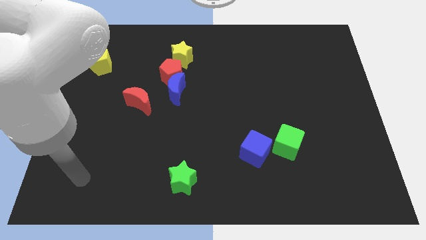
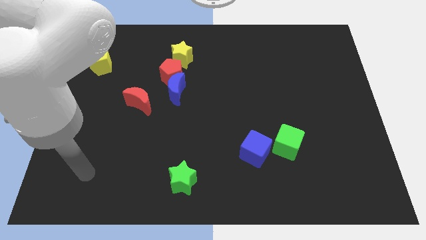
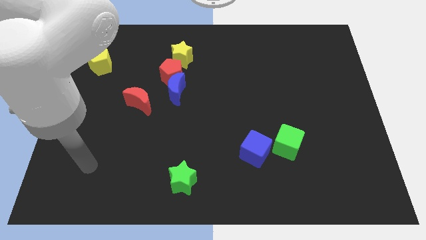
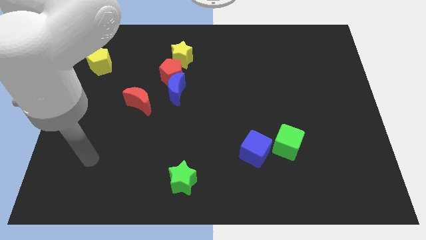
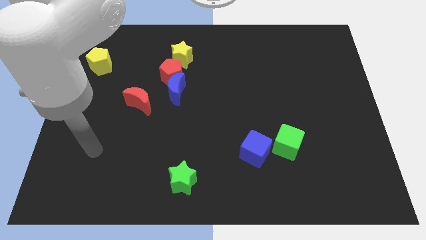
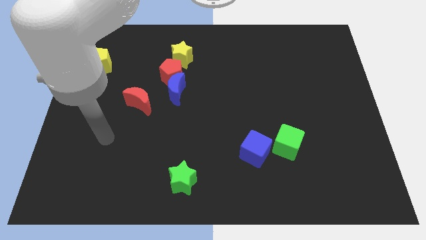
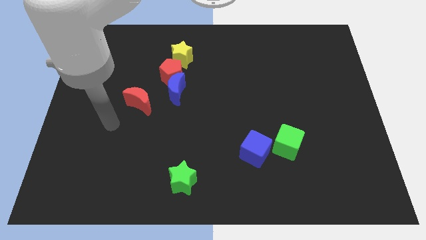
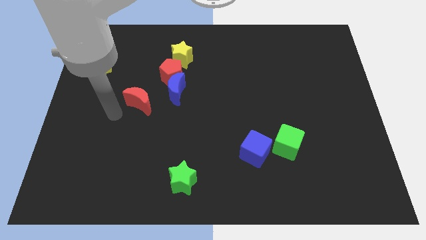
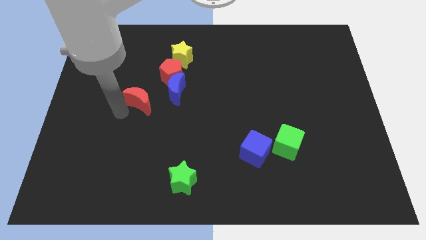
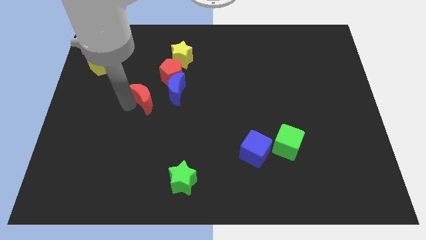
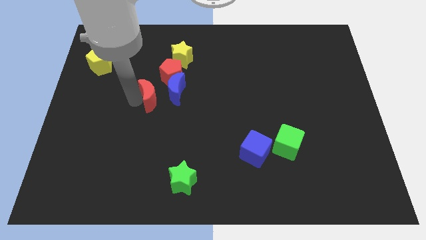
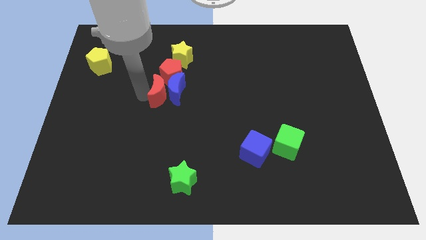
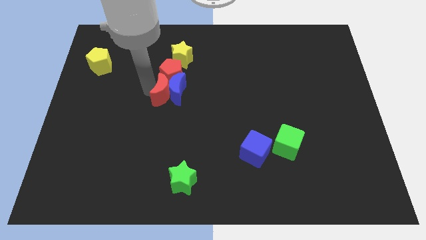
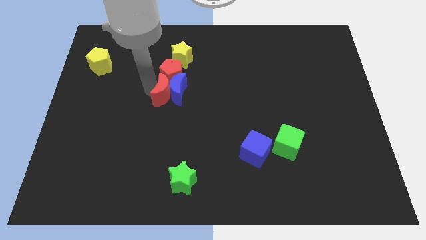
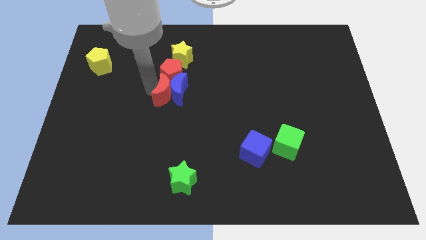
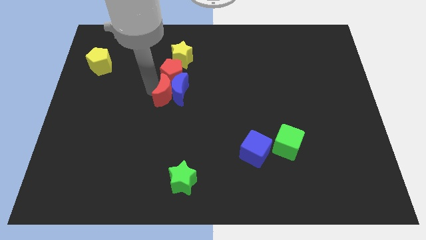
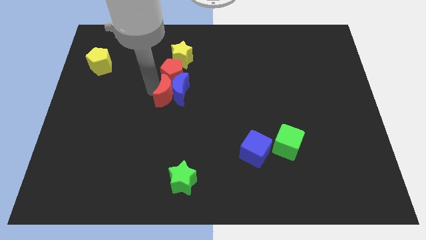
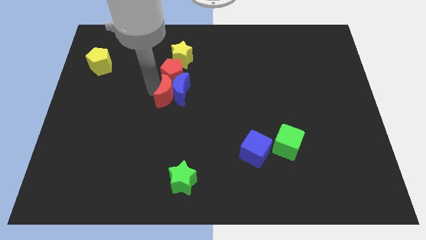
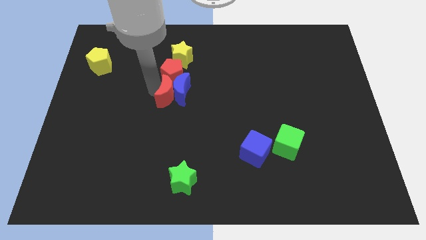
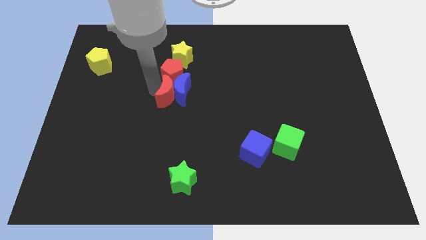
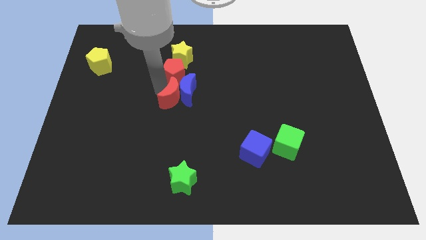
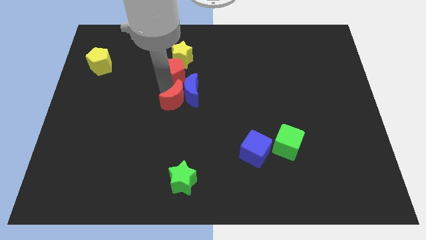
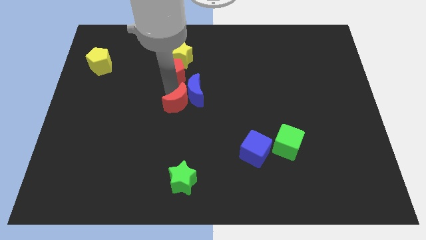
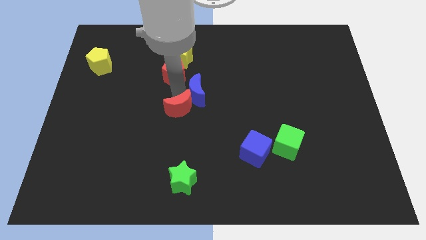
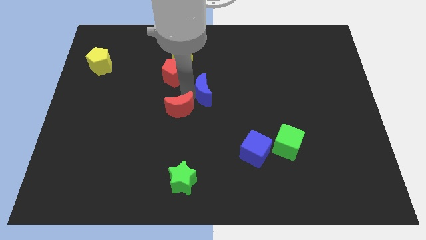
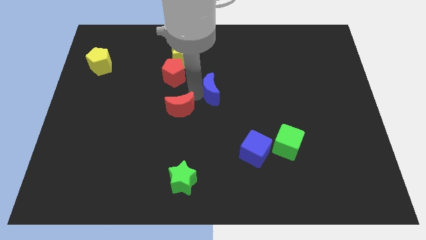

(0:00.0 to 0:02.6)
push the blue moon a bit to the right

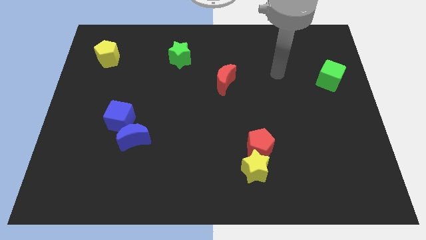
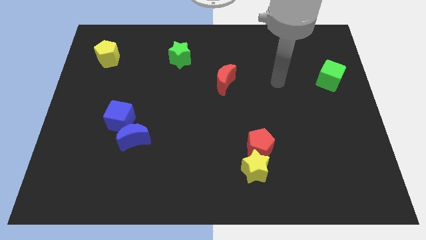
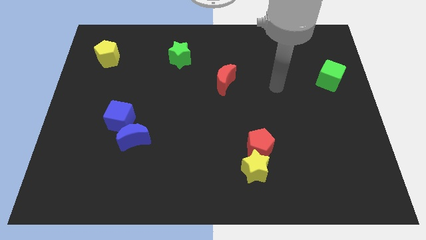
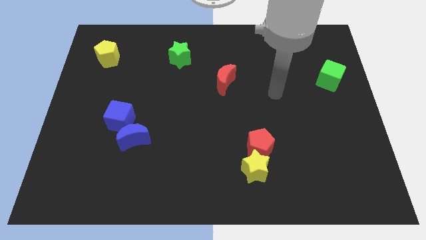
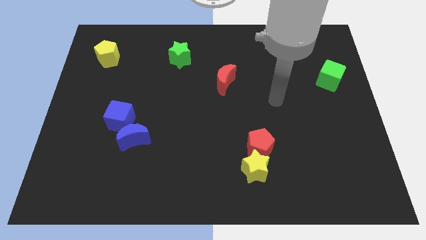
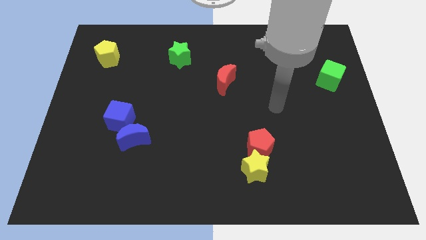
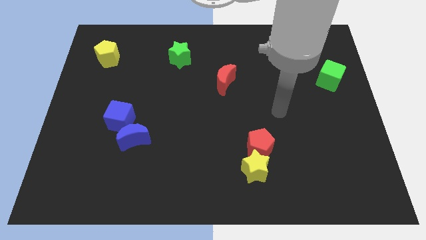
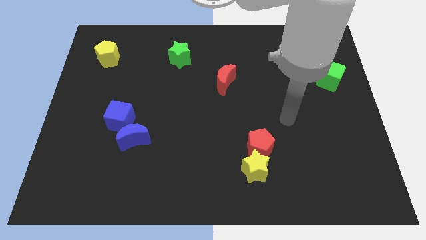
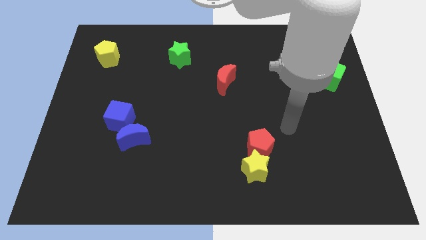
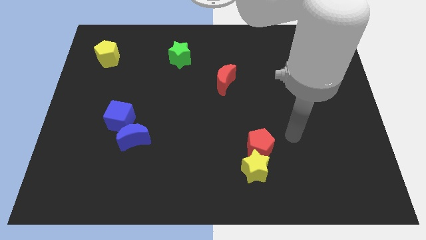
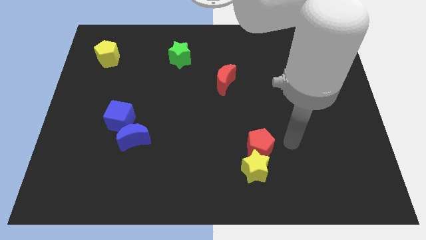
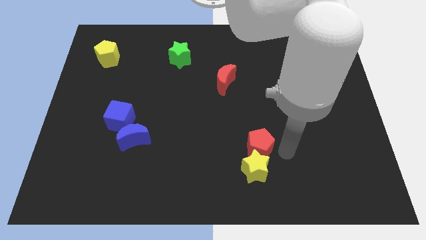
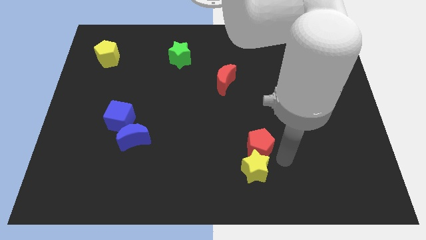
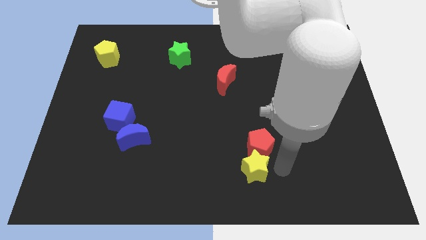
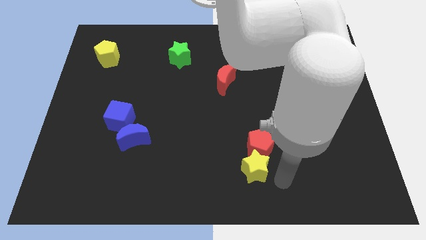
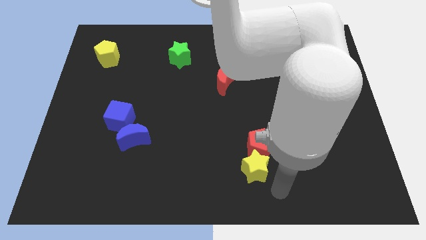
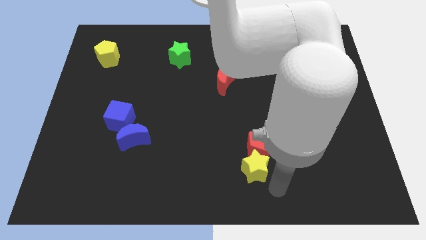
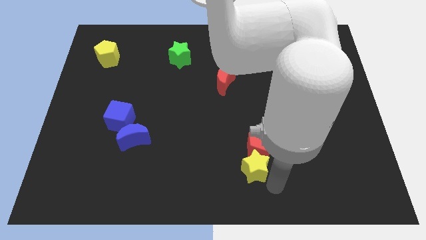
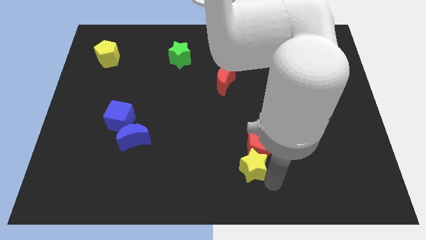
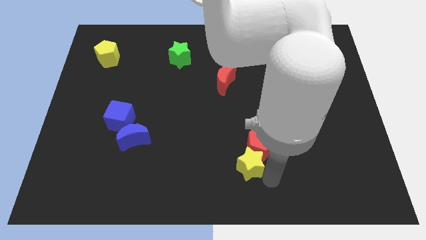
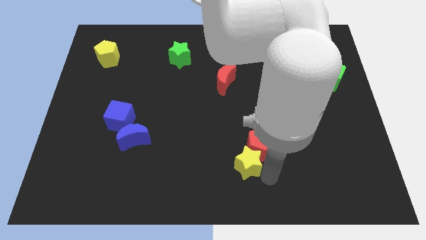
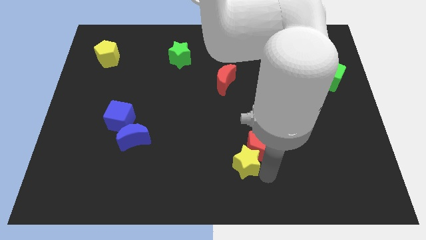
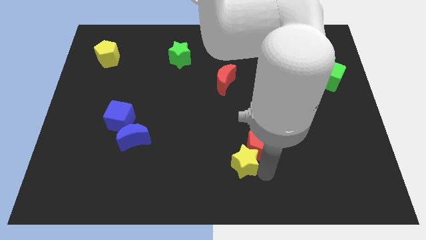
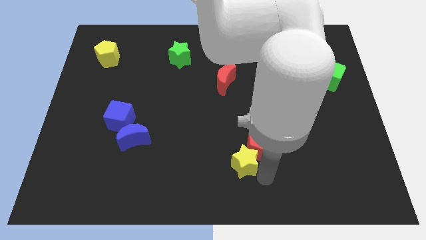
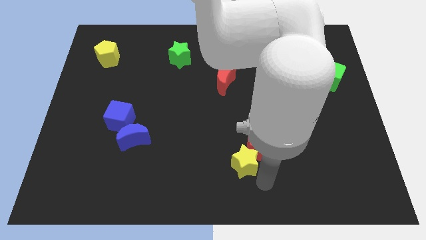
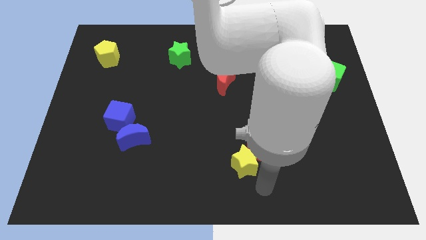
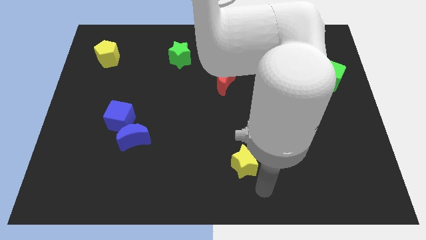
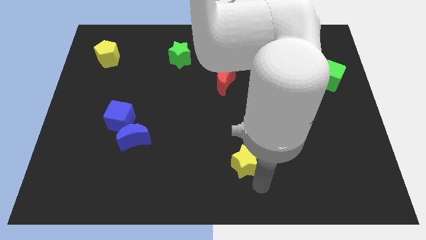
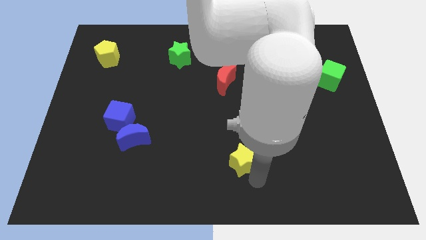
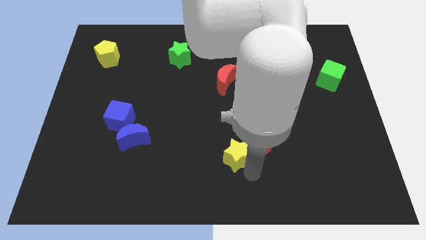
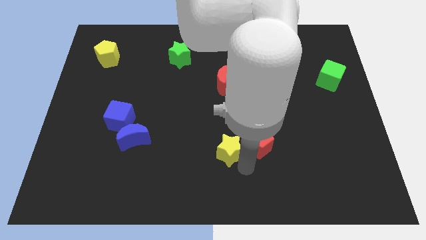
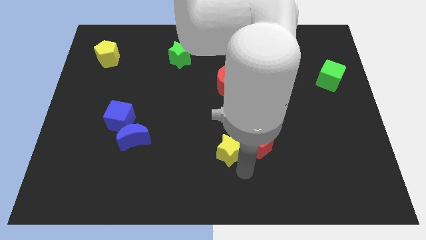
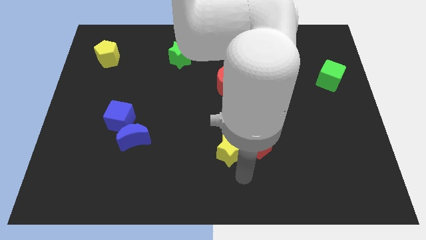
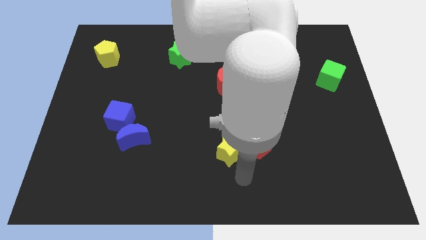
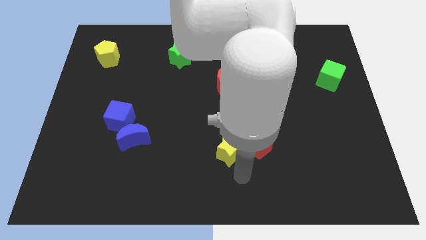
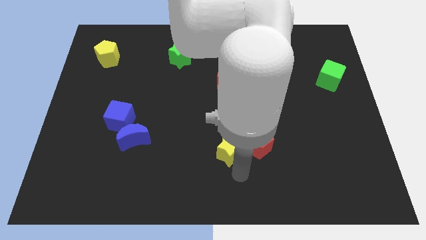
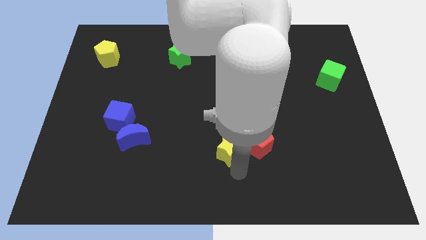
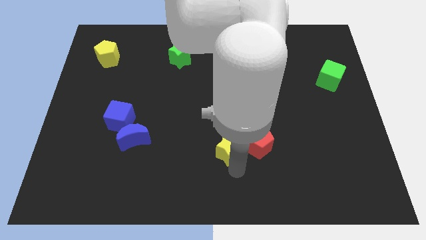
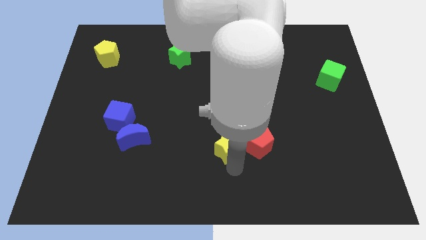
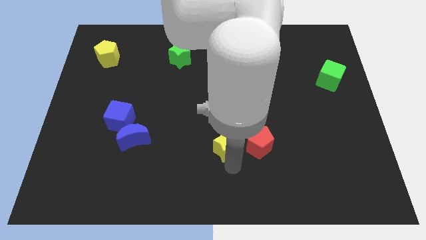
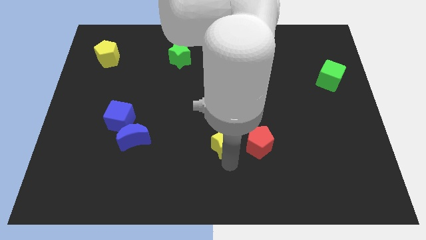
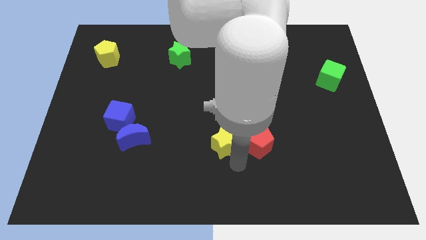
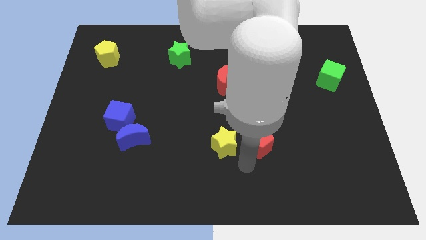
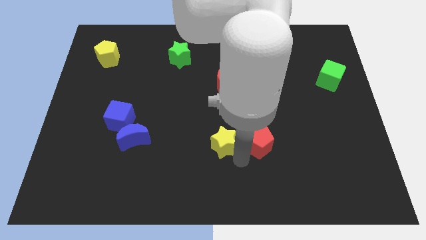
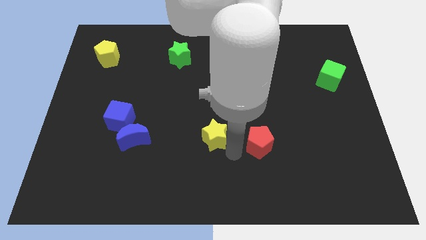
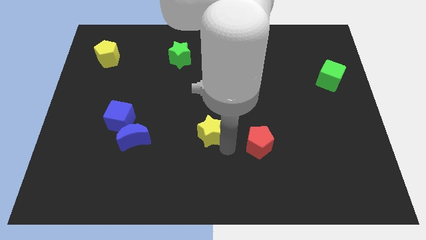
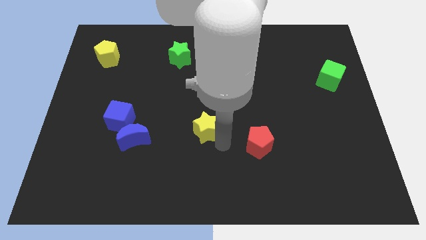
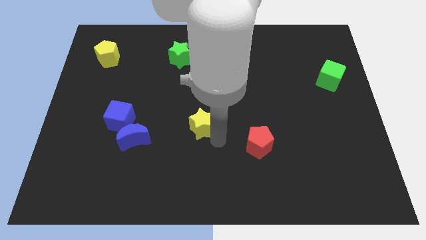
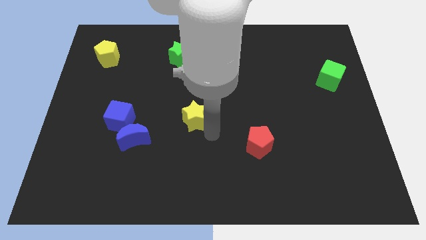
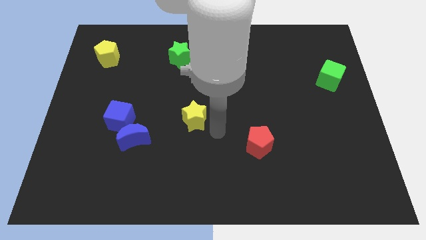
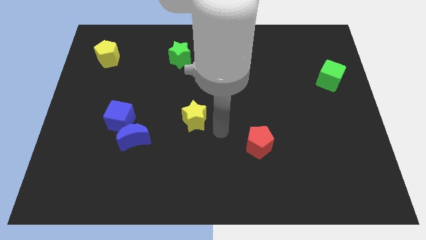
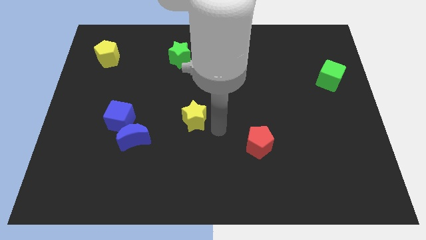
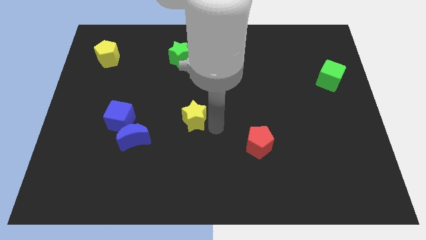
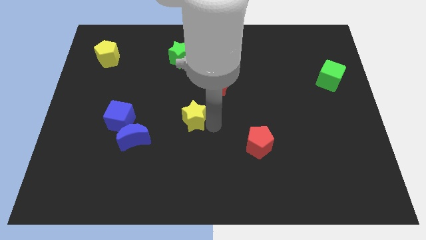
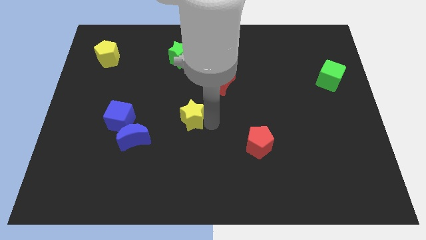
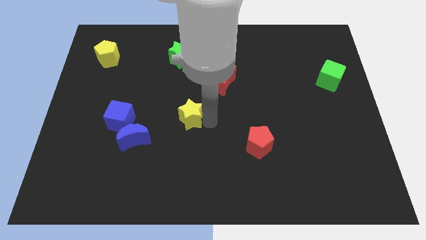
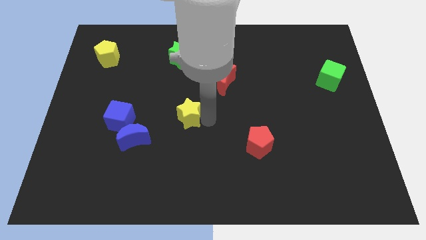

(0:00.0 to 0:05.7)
push the yellow star up and left diagonally
